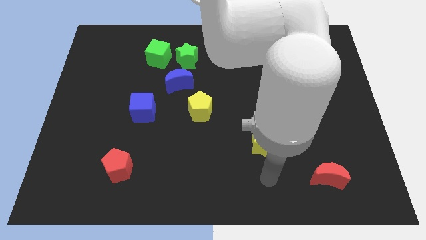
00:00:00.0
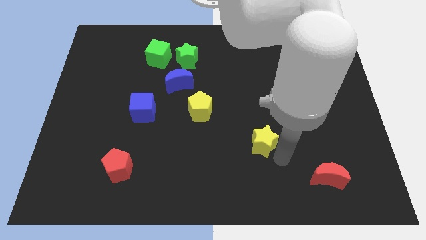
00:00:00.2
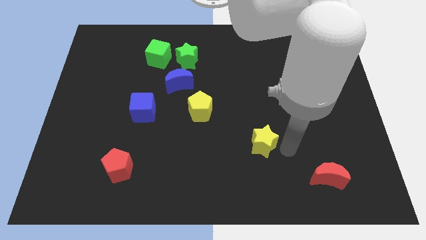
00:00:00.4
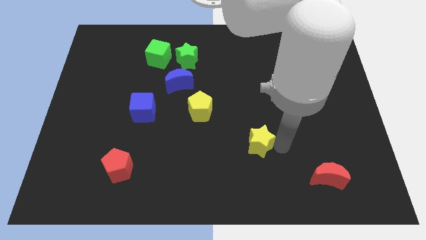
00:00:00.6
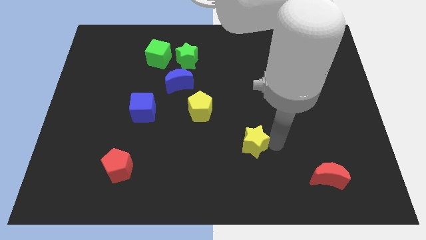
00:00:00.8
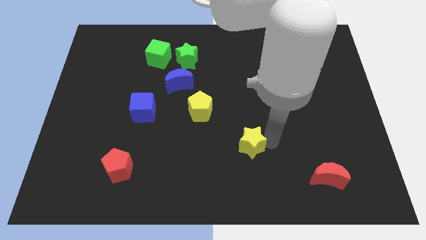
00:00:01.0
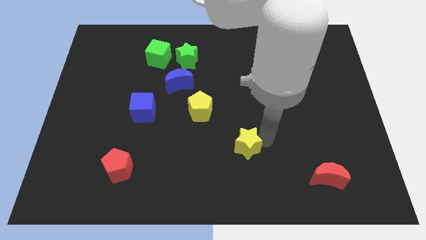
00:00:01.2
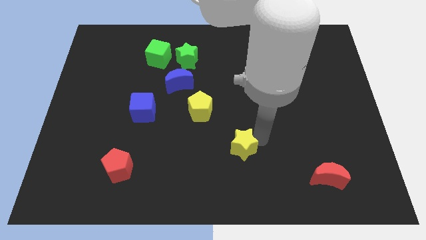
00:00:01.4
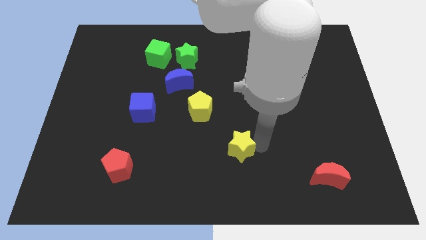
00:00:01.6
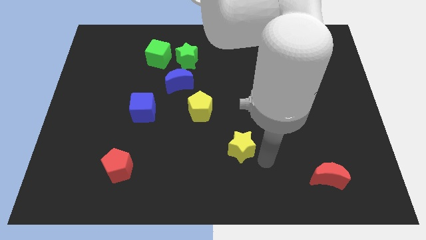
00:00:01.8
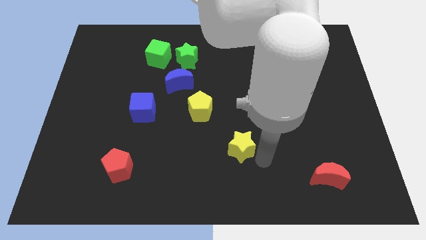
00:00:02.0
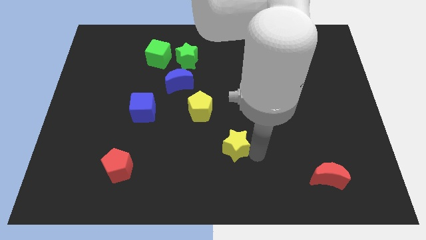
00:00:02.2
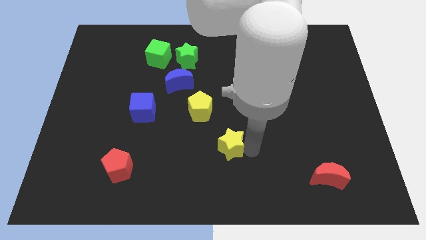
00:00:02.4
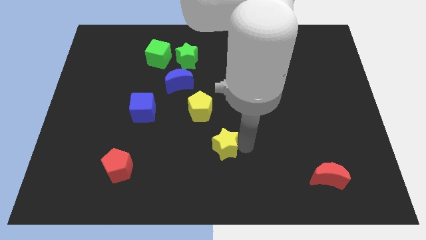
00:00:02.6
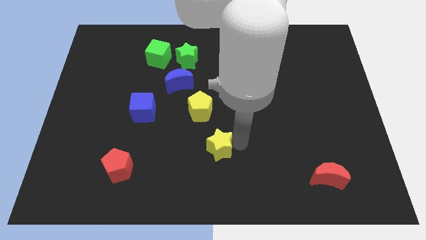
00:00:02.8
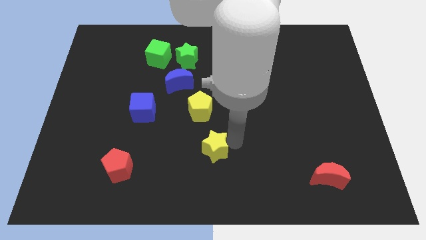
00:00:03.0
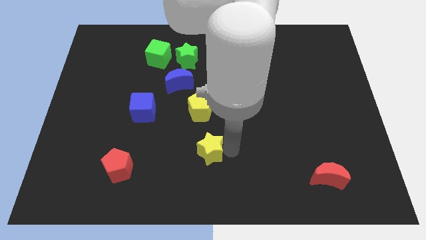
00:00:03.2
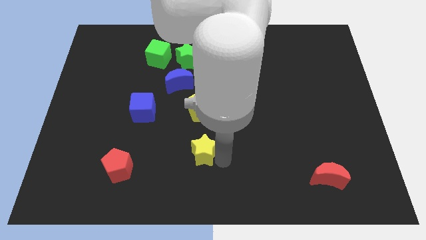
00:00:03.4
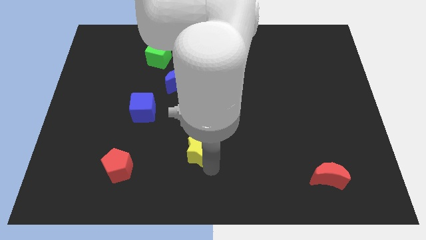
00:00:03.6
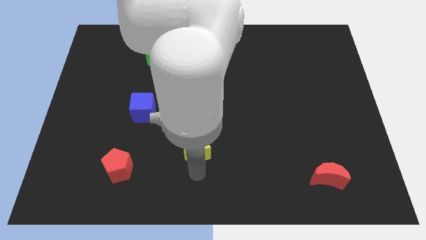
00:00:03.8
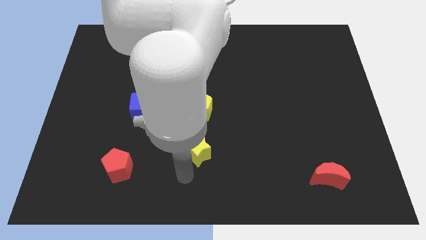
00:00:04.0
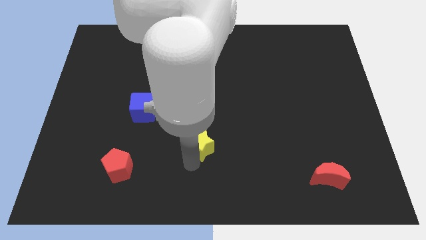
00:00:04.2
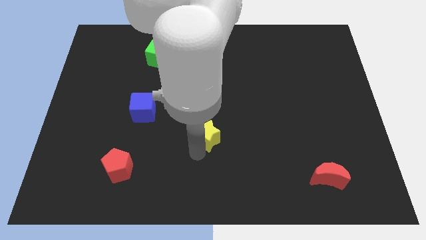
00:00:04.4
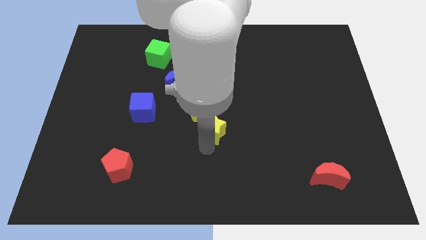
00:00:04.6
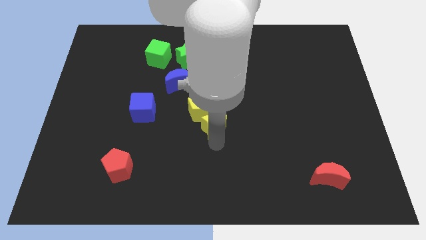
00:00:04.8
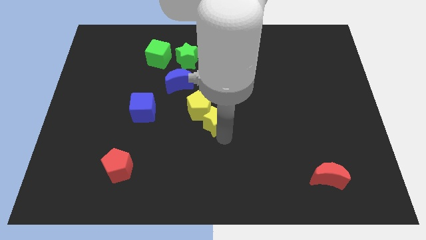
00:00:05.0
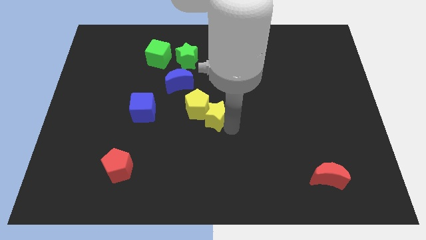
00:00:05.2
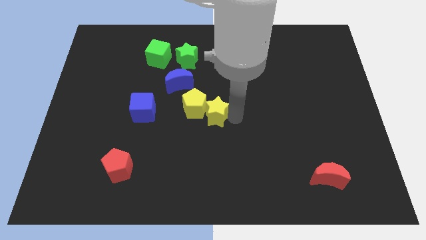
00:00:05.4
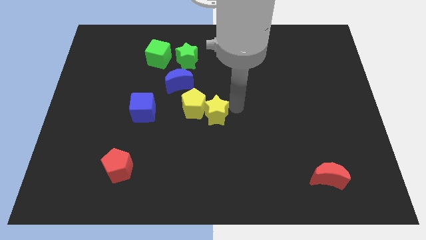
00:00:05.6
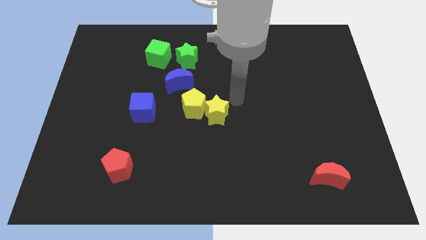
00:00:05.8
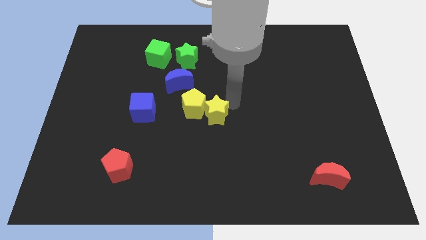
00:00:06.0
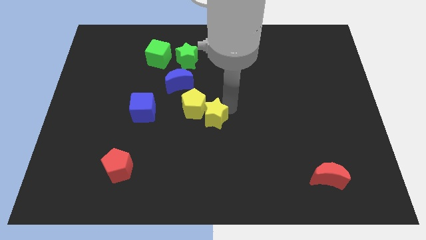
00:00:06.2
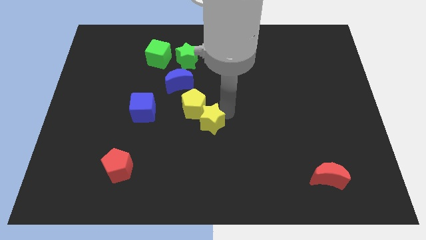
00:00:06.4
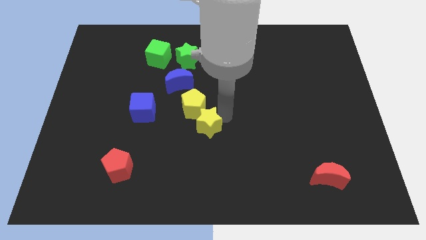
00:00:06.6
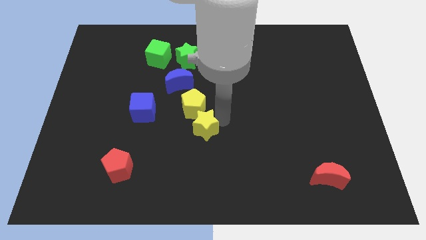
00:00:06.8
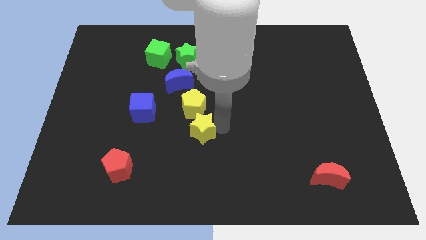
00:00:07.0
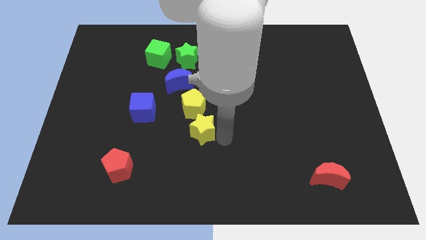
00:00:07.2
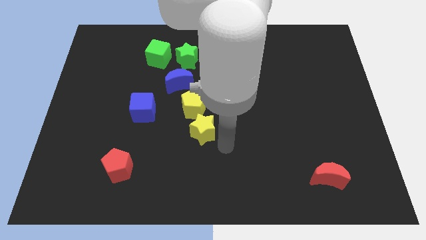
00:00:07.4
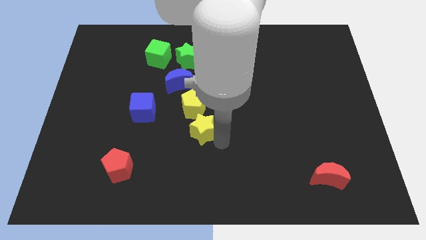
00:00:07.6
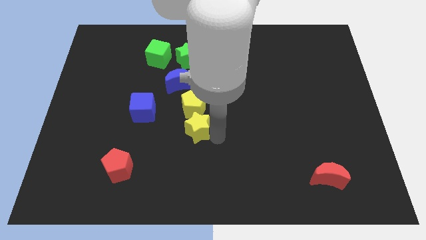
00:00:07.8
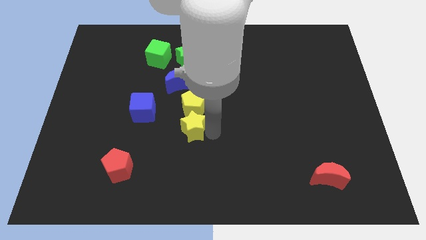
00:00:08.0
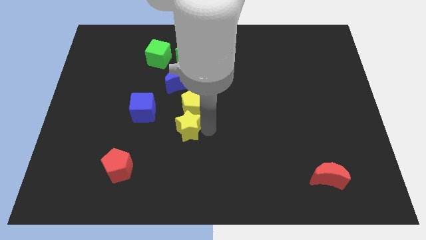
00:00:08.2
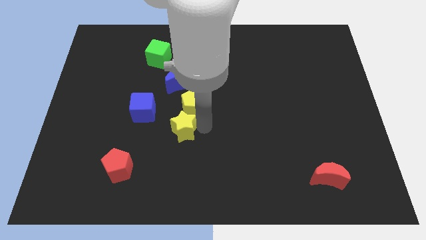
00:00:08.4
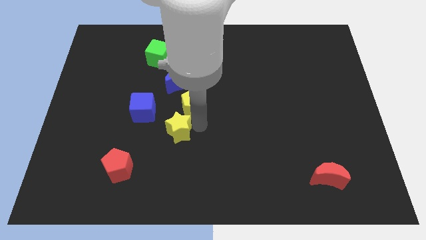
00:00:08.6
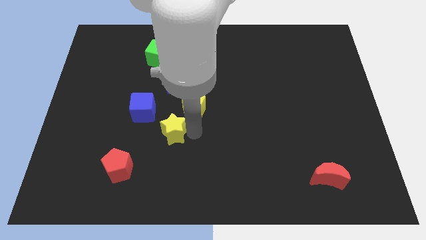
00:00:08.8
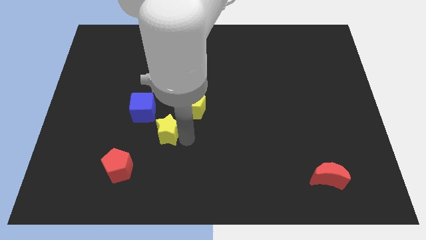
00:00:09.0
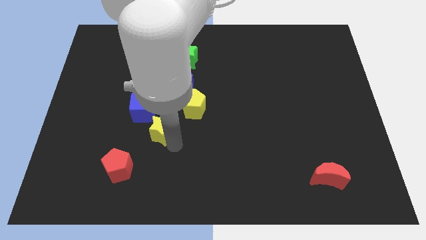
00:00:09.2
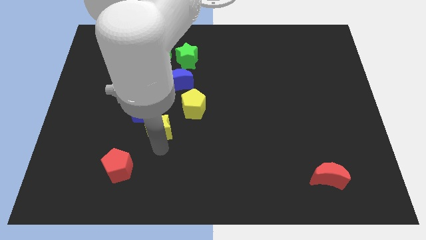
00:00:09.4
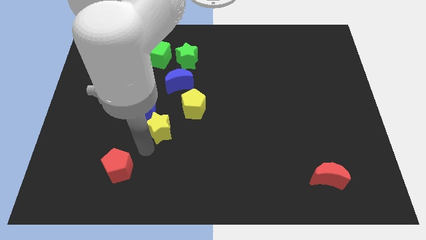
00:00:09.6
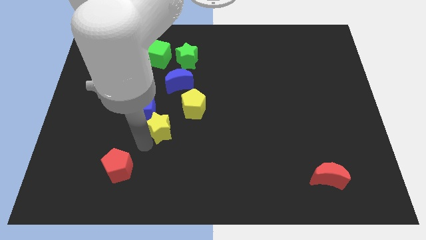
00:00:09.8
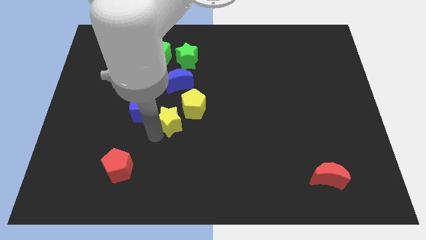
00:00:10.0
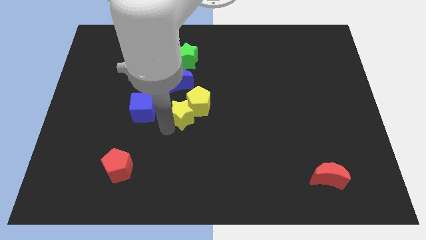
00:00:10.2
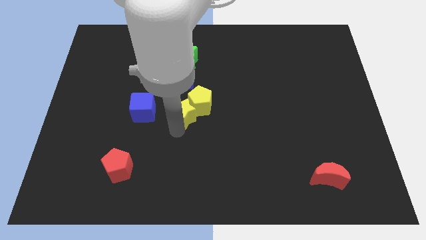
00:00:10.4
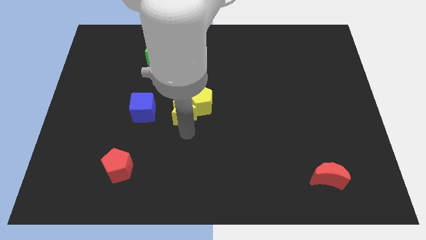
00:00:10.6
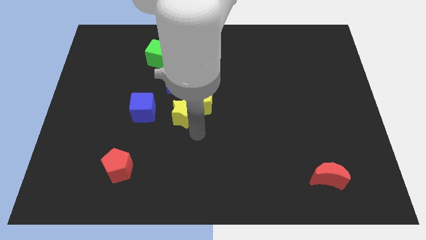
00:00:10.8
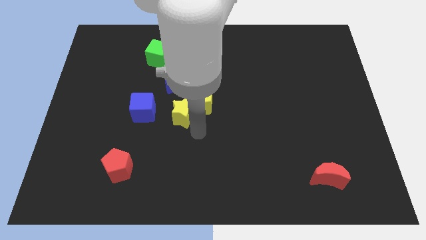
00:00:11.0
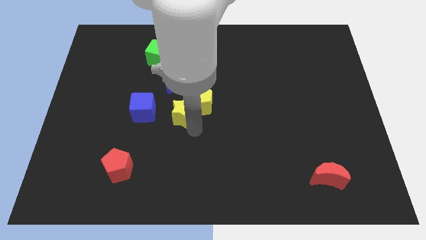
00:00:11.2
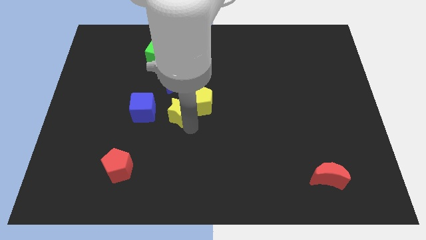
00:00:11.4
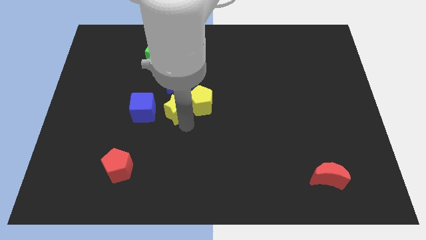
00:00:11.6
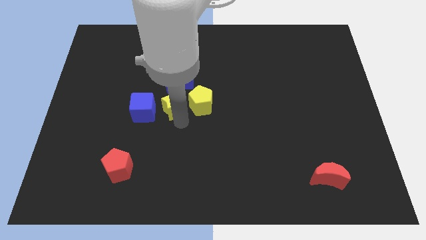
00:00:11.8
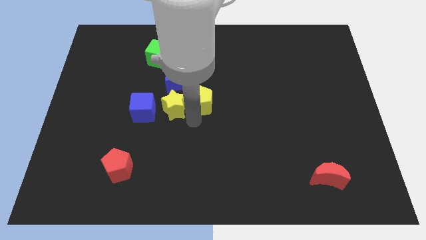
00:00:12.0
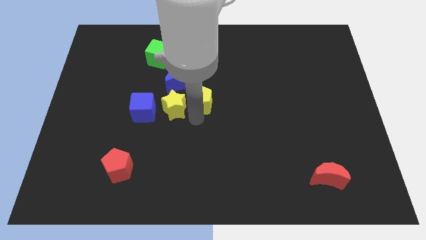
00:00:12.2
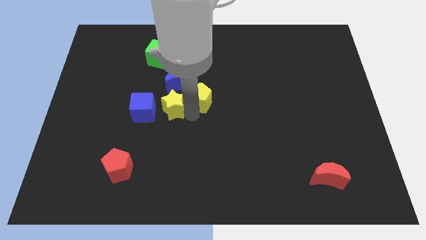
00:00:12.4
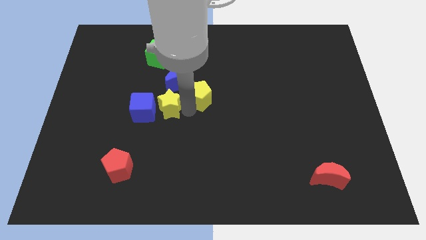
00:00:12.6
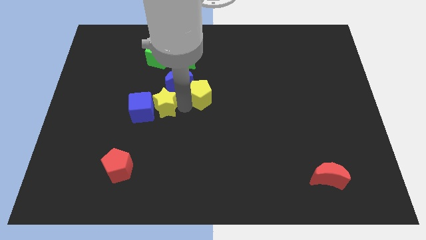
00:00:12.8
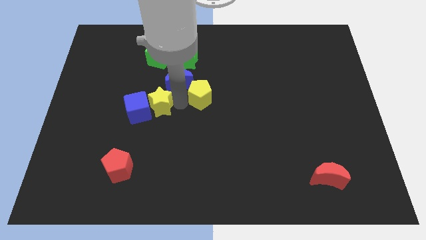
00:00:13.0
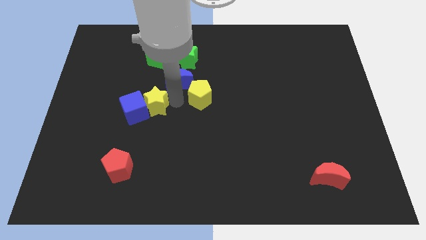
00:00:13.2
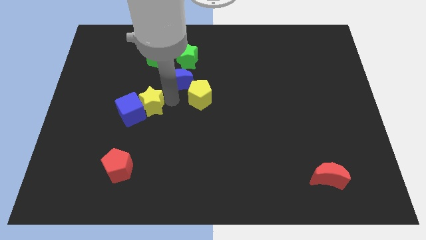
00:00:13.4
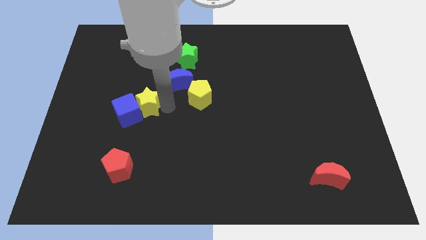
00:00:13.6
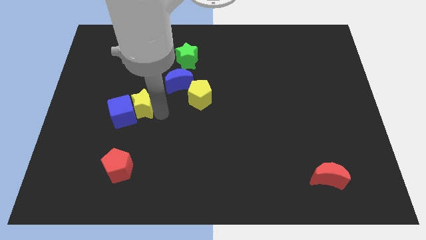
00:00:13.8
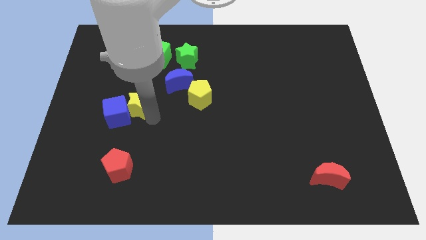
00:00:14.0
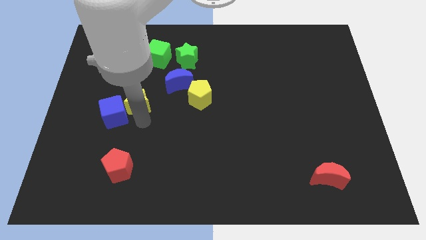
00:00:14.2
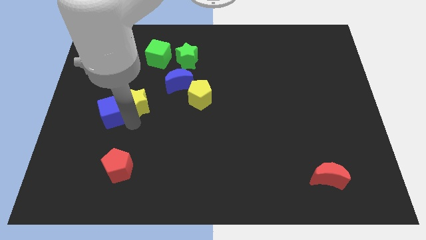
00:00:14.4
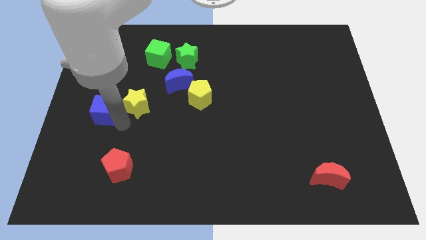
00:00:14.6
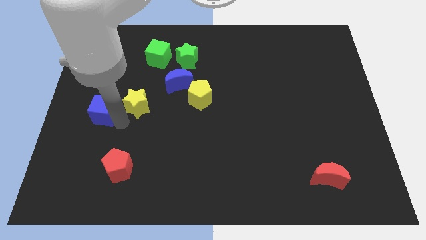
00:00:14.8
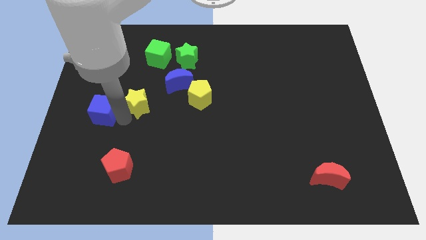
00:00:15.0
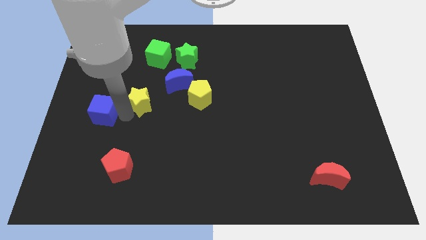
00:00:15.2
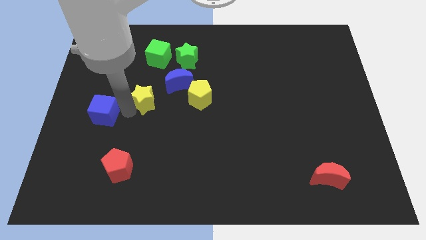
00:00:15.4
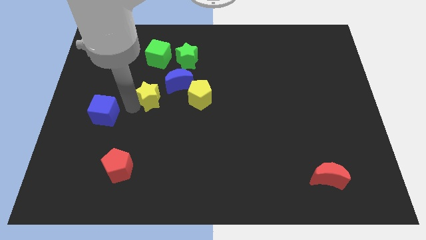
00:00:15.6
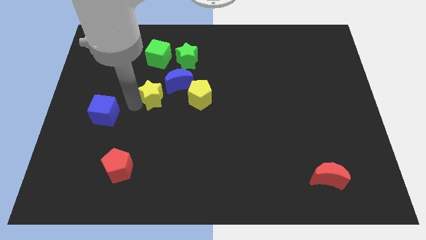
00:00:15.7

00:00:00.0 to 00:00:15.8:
push the yellow star to the left side of the blue moon
